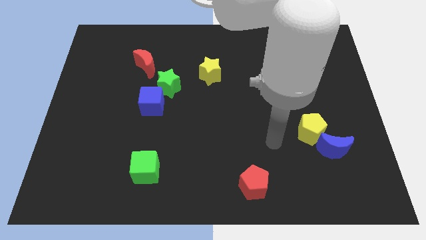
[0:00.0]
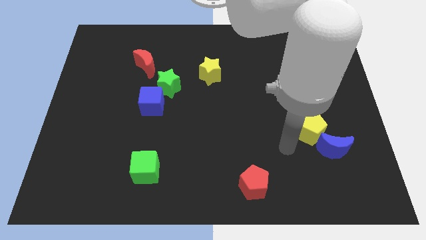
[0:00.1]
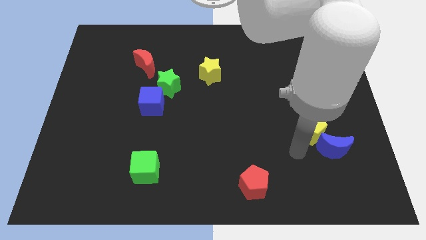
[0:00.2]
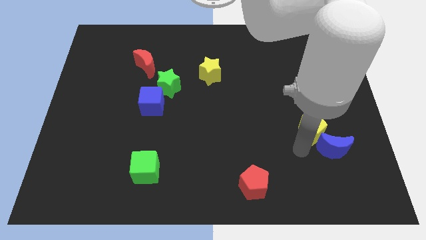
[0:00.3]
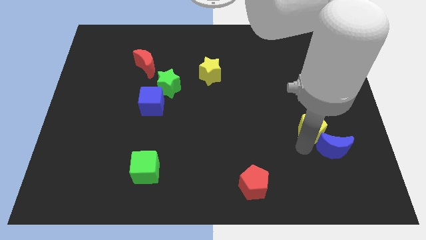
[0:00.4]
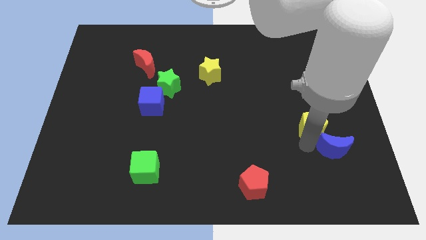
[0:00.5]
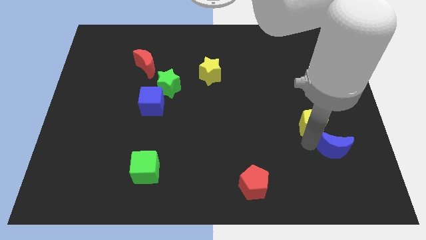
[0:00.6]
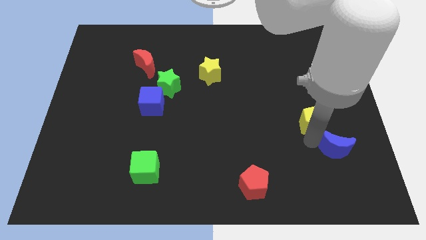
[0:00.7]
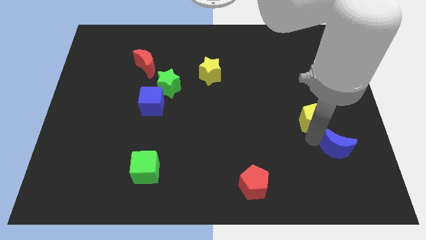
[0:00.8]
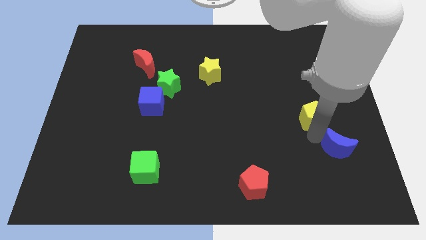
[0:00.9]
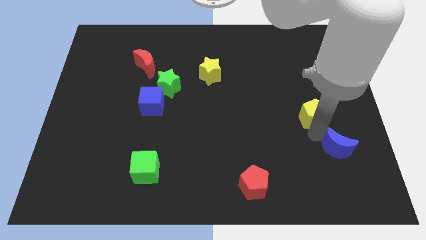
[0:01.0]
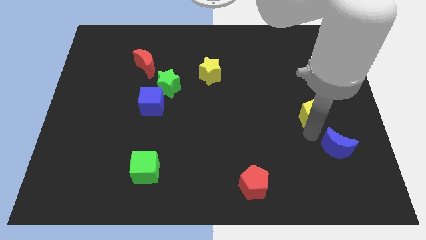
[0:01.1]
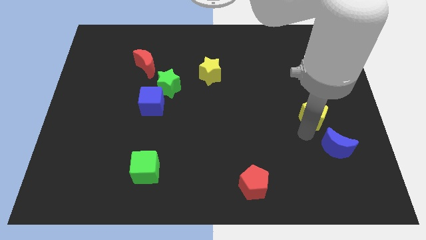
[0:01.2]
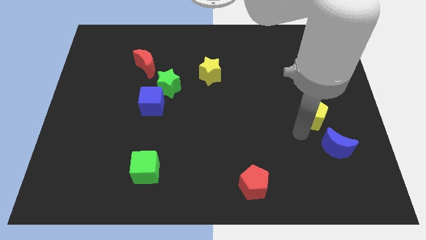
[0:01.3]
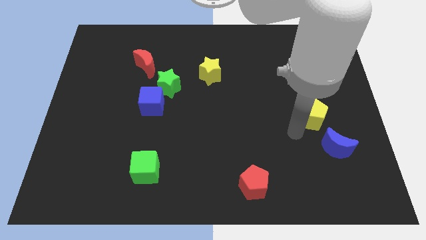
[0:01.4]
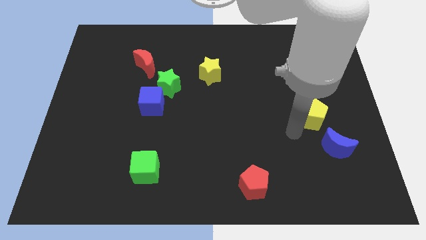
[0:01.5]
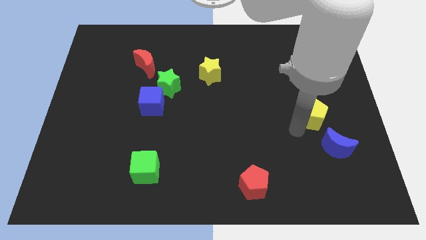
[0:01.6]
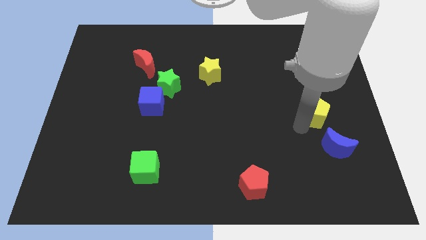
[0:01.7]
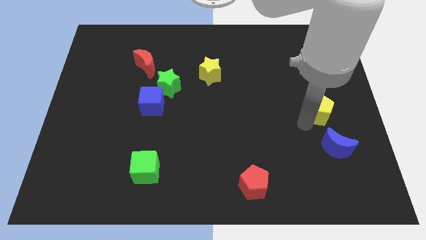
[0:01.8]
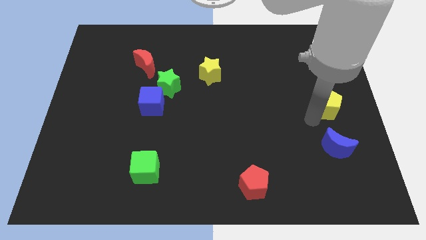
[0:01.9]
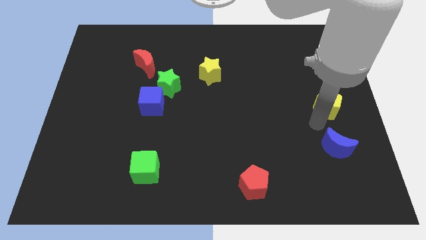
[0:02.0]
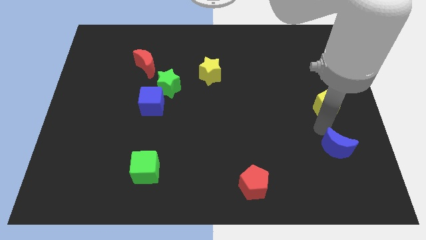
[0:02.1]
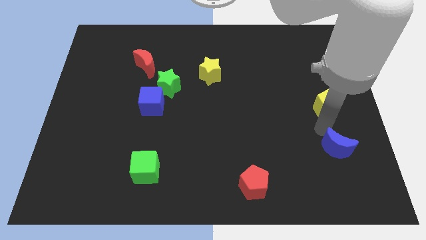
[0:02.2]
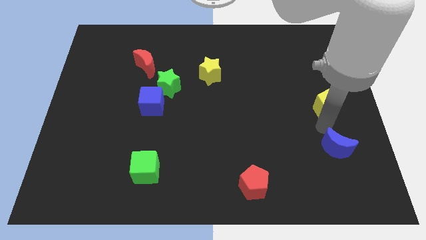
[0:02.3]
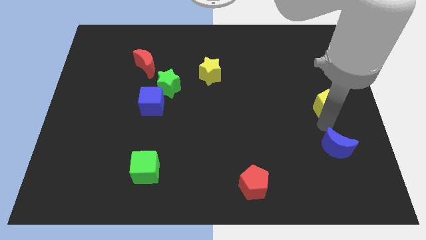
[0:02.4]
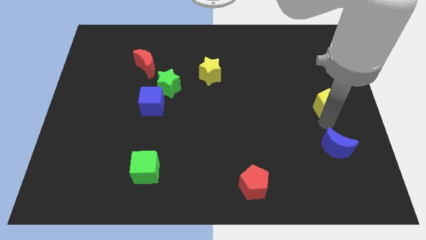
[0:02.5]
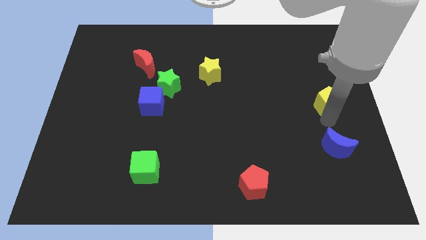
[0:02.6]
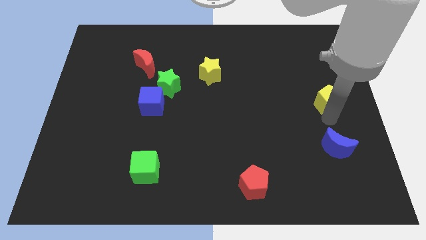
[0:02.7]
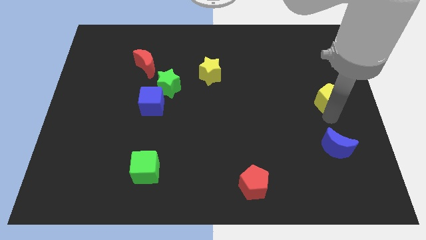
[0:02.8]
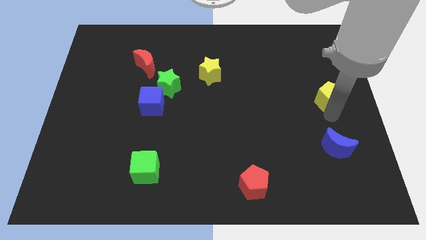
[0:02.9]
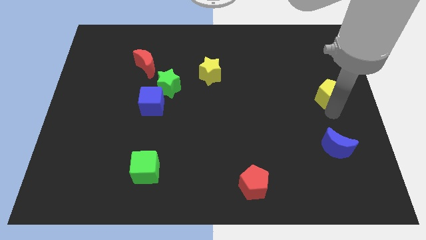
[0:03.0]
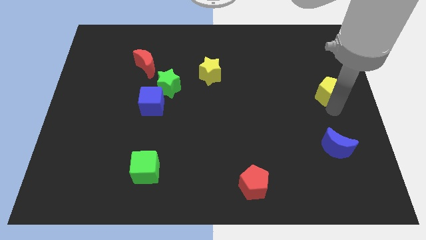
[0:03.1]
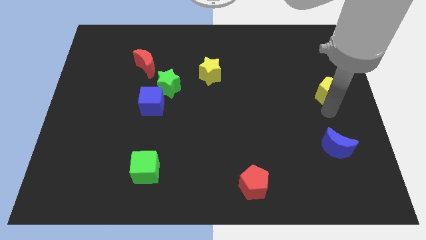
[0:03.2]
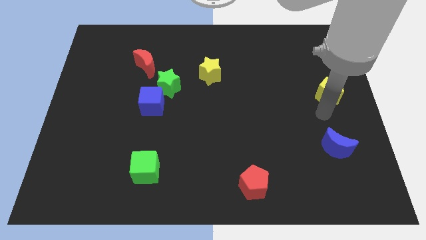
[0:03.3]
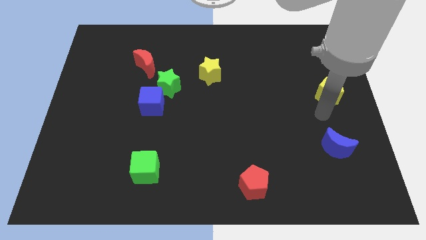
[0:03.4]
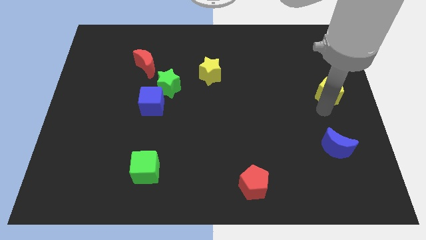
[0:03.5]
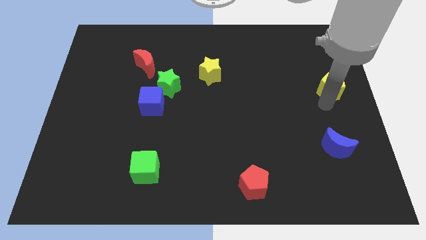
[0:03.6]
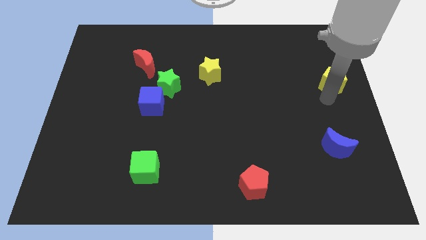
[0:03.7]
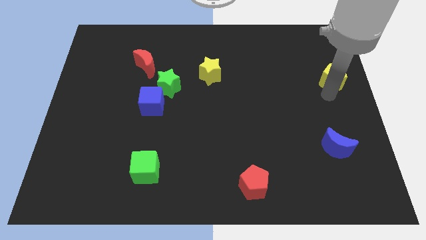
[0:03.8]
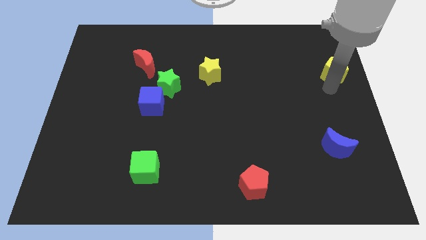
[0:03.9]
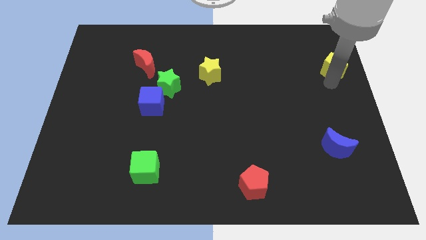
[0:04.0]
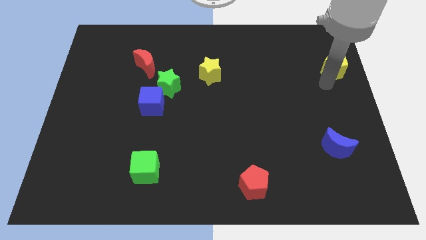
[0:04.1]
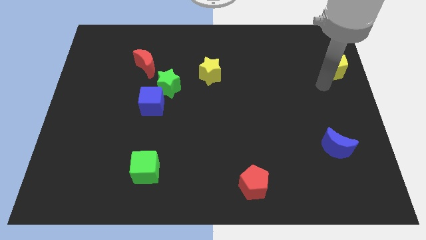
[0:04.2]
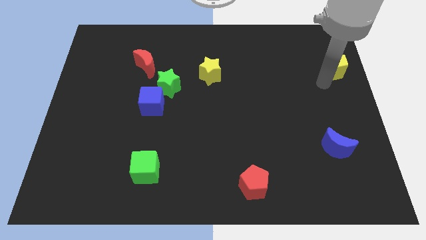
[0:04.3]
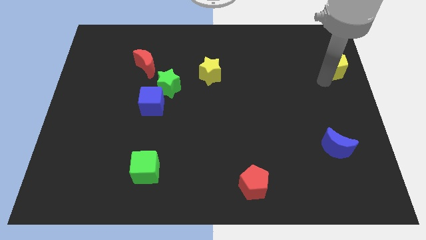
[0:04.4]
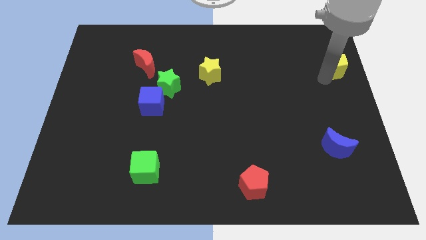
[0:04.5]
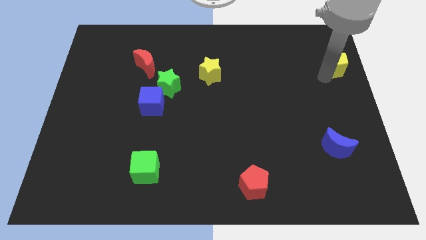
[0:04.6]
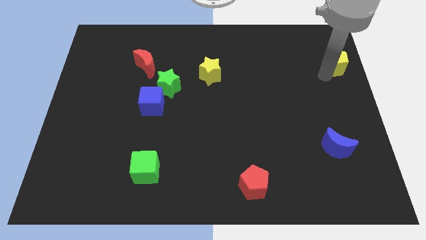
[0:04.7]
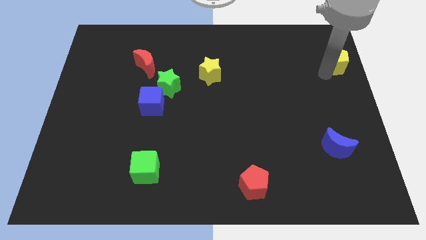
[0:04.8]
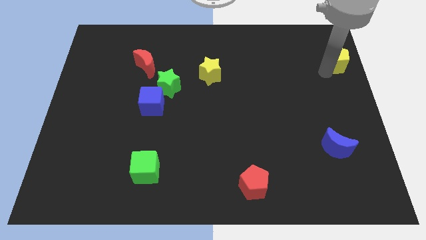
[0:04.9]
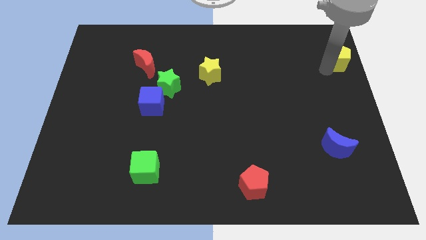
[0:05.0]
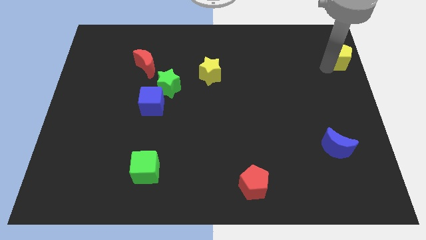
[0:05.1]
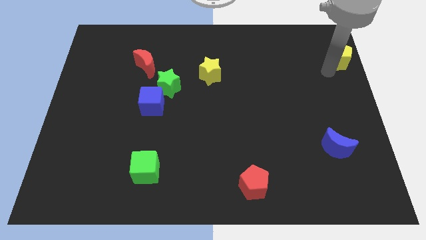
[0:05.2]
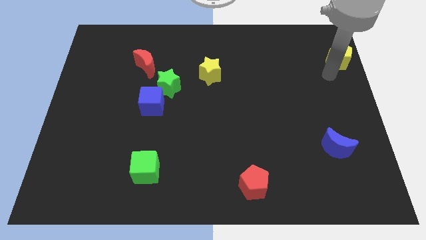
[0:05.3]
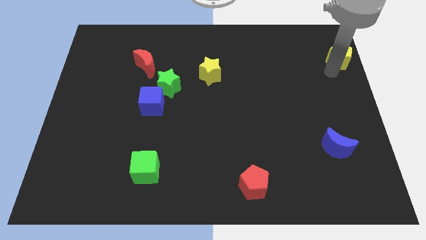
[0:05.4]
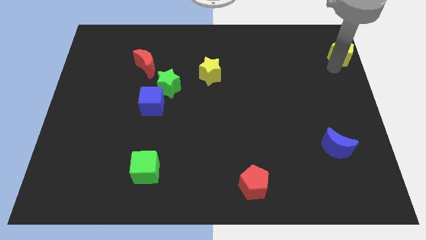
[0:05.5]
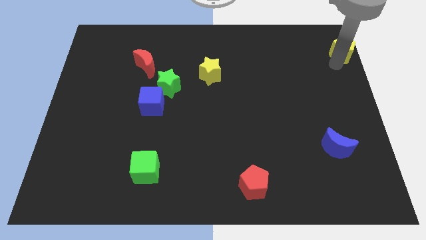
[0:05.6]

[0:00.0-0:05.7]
put the yellow pentagon to the top right of the board

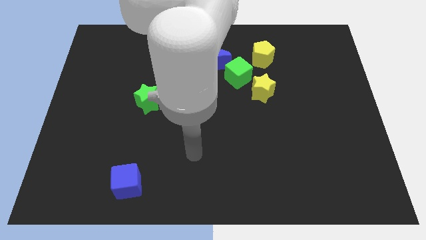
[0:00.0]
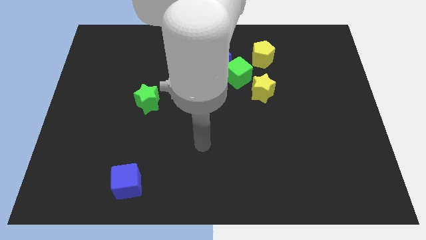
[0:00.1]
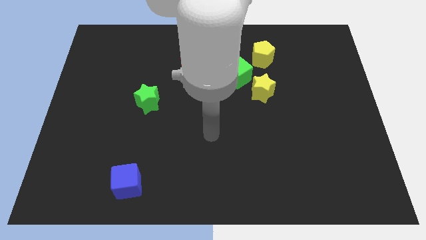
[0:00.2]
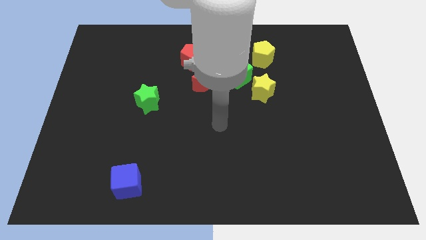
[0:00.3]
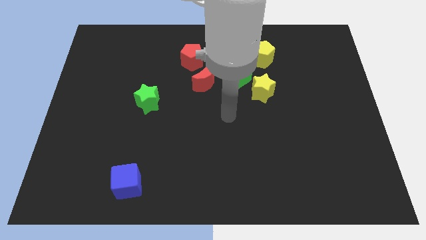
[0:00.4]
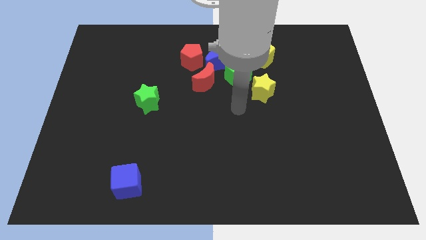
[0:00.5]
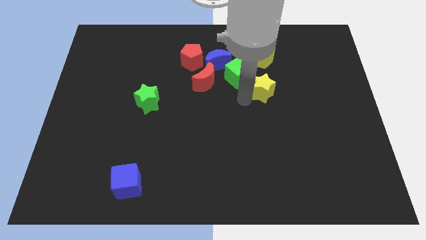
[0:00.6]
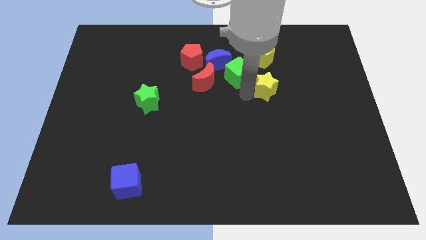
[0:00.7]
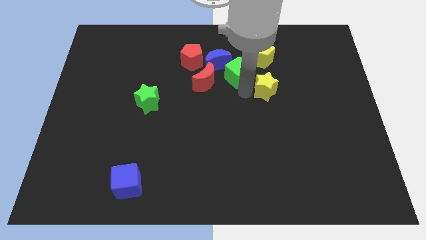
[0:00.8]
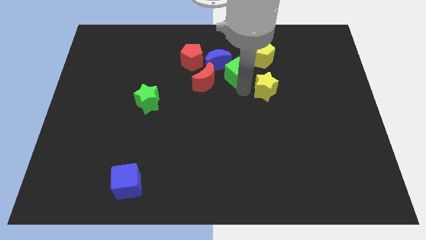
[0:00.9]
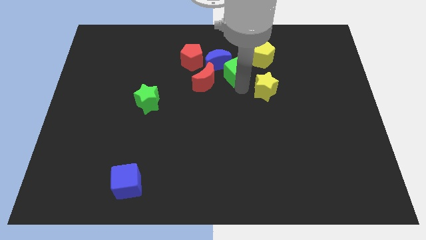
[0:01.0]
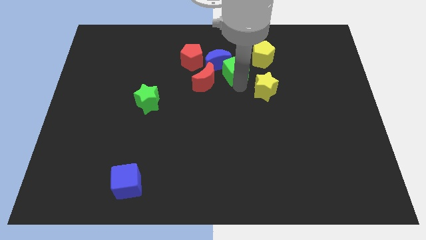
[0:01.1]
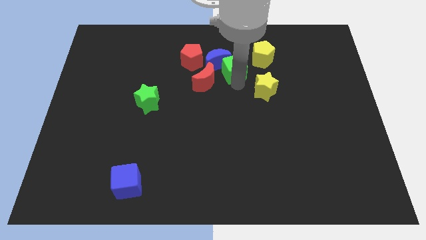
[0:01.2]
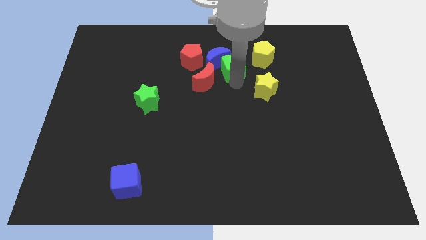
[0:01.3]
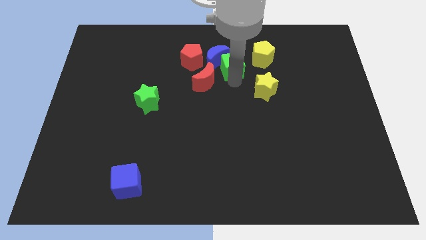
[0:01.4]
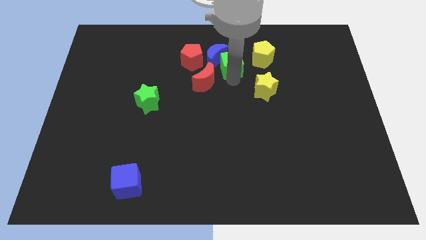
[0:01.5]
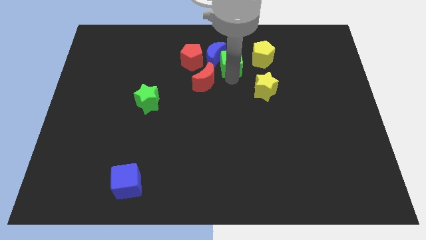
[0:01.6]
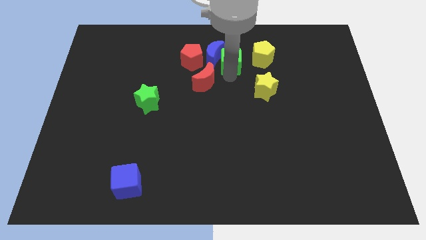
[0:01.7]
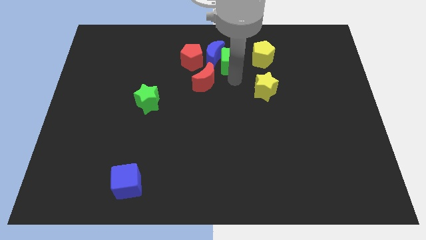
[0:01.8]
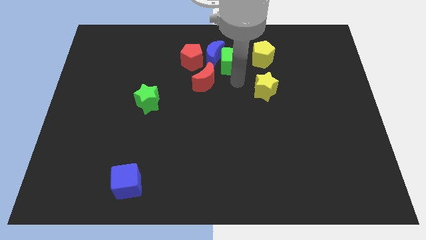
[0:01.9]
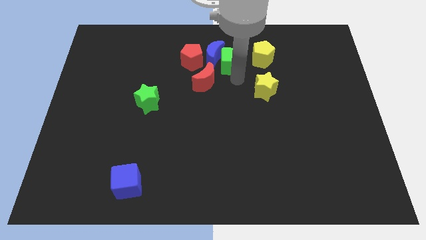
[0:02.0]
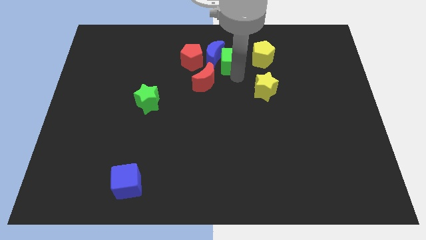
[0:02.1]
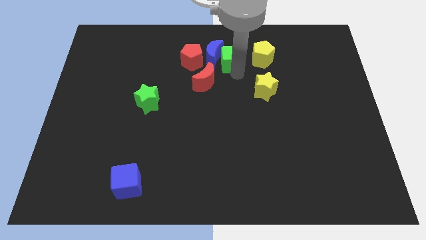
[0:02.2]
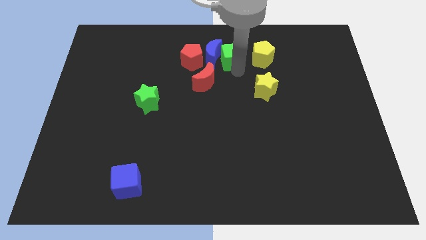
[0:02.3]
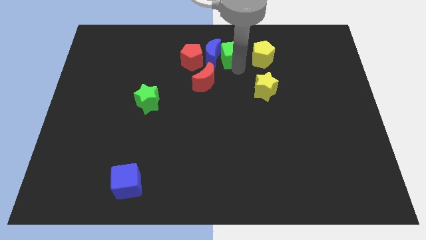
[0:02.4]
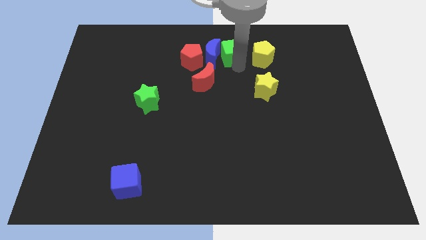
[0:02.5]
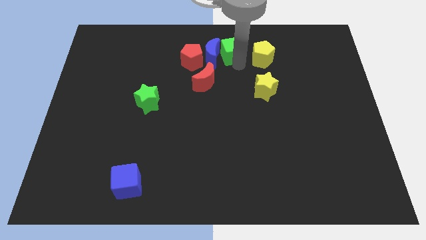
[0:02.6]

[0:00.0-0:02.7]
slide the green cube to the top
